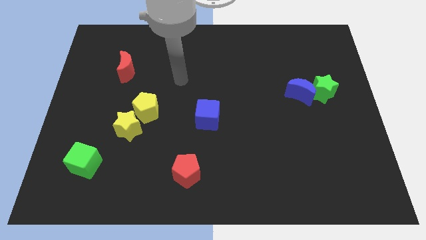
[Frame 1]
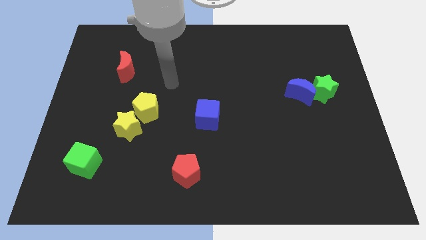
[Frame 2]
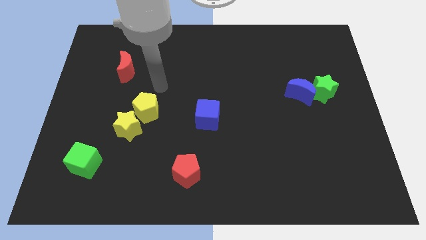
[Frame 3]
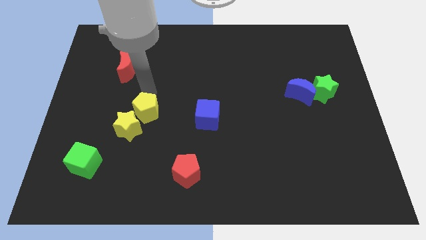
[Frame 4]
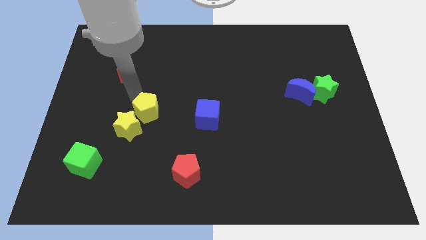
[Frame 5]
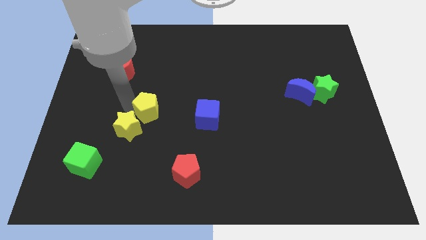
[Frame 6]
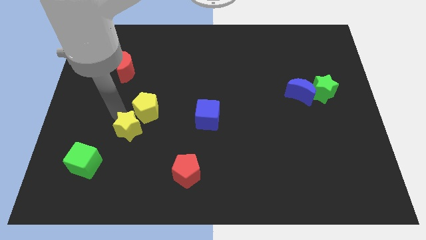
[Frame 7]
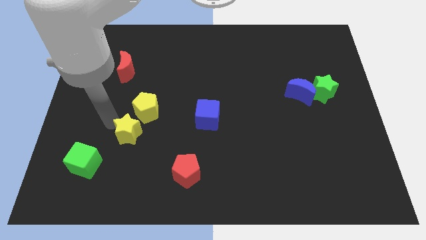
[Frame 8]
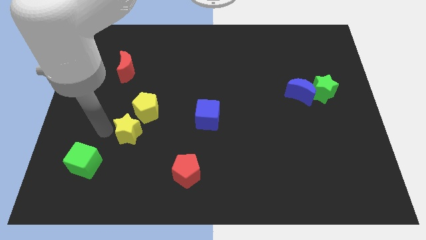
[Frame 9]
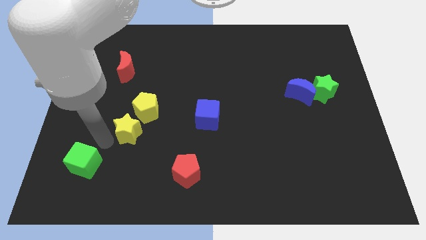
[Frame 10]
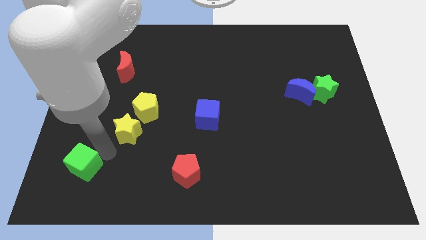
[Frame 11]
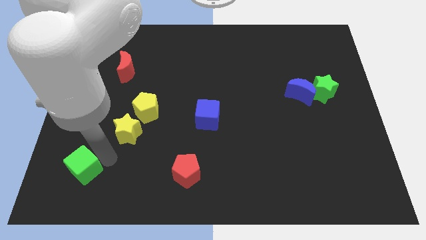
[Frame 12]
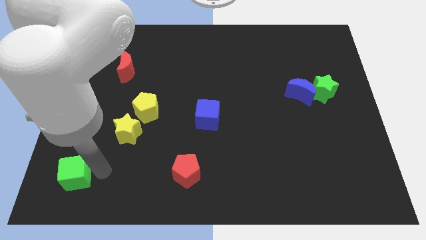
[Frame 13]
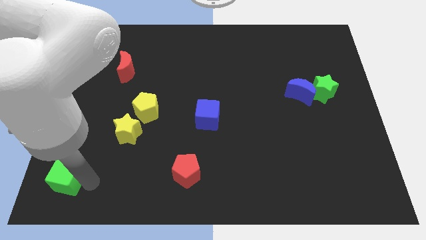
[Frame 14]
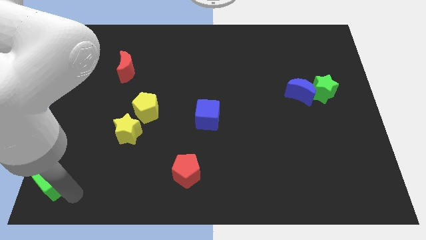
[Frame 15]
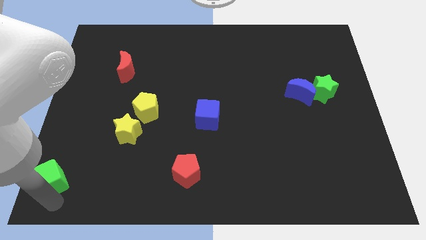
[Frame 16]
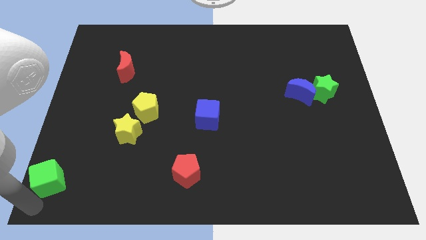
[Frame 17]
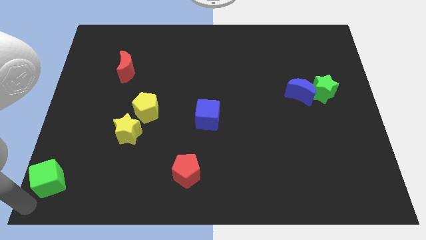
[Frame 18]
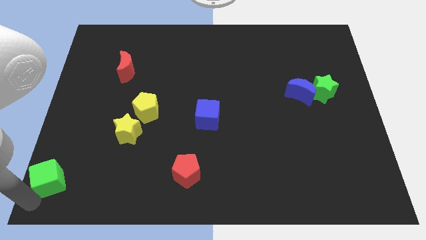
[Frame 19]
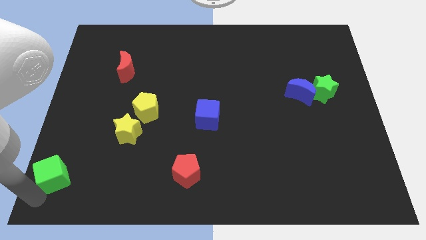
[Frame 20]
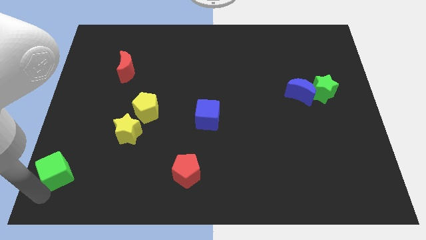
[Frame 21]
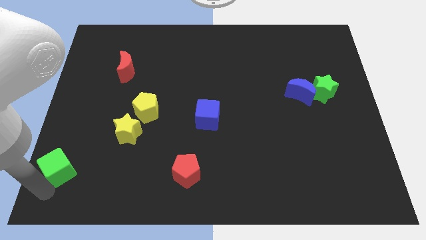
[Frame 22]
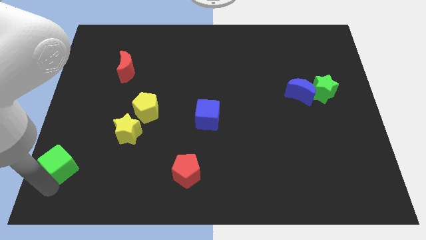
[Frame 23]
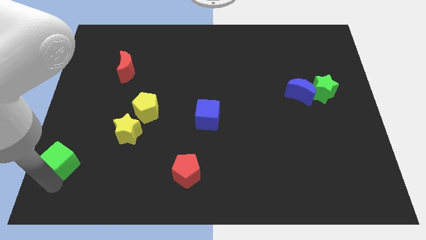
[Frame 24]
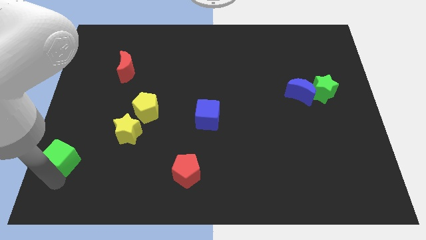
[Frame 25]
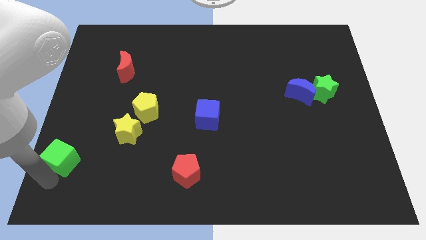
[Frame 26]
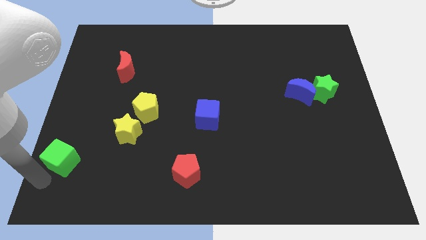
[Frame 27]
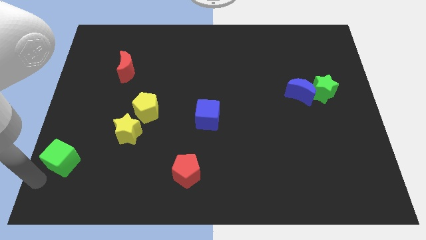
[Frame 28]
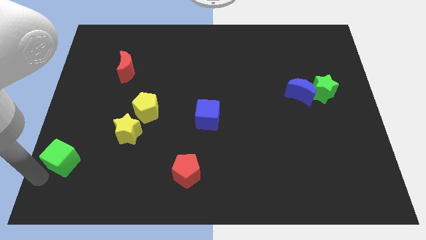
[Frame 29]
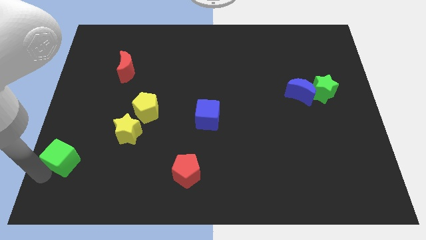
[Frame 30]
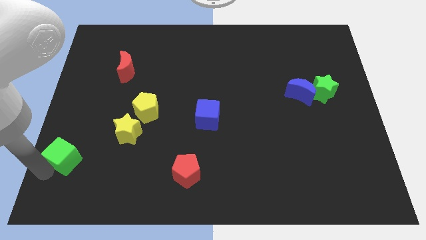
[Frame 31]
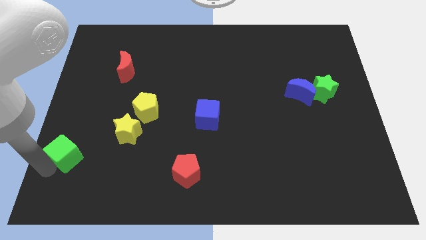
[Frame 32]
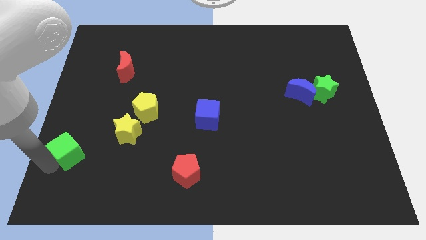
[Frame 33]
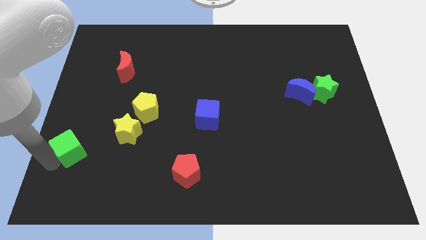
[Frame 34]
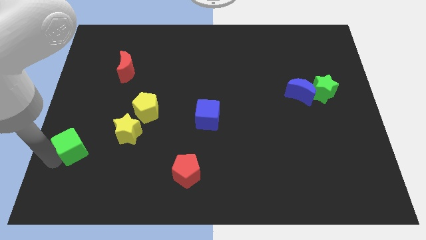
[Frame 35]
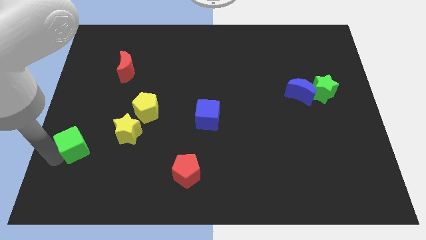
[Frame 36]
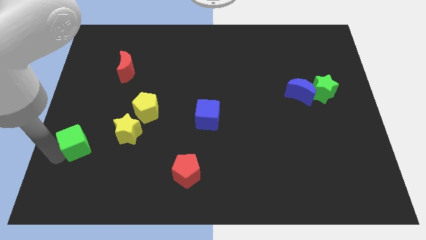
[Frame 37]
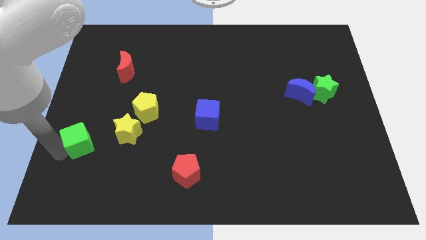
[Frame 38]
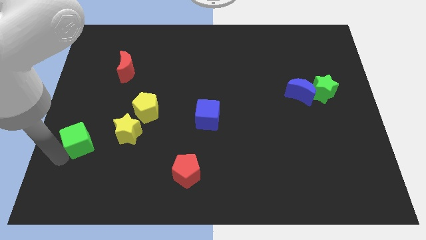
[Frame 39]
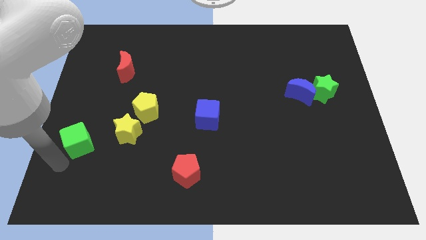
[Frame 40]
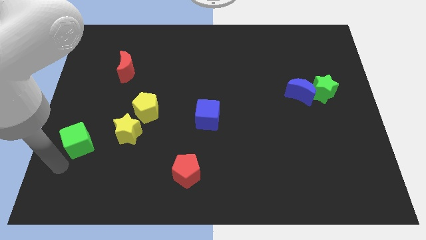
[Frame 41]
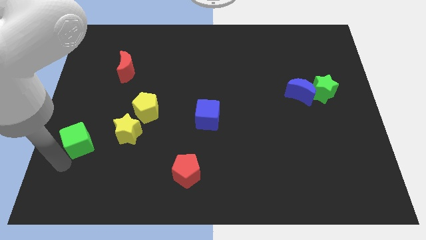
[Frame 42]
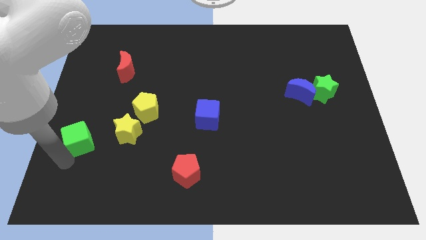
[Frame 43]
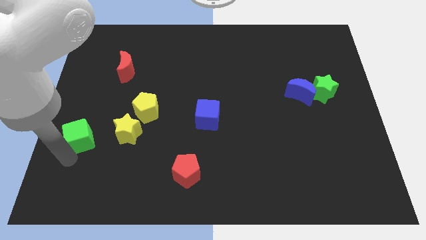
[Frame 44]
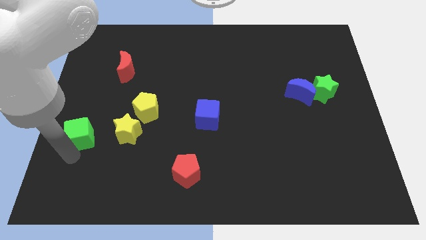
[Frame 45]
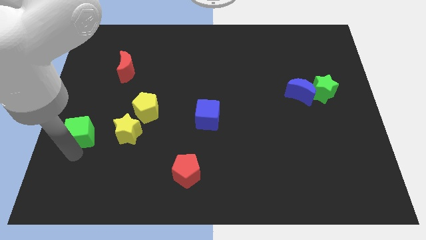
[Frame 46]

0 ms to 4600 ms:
move the green cube up a little

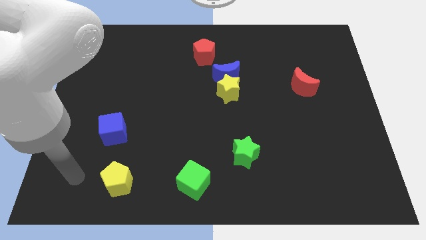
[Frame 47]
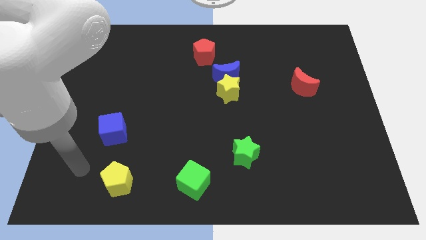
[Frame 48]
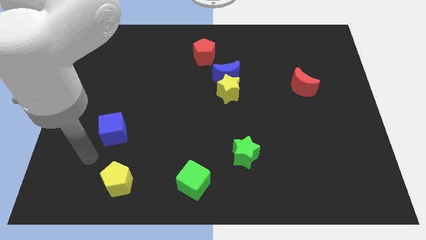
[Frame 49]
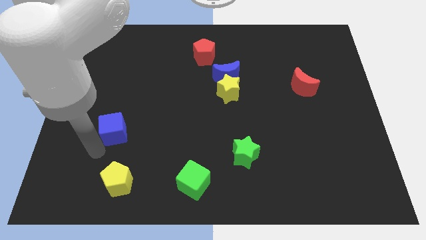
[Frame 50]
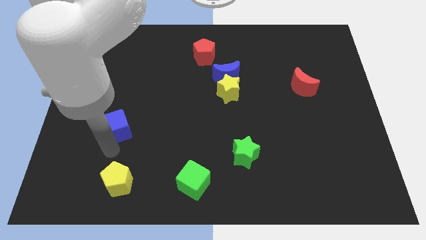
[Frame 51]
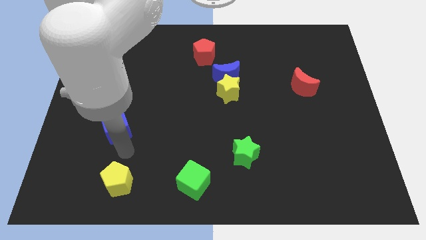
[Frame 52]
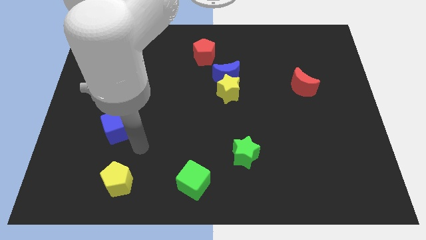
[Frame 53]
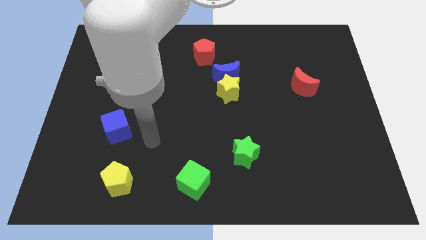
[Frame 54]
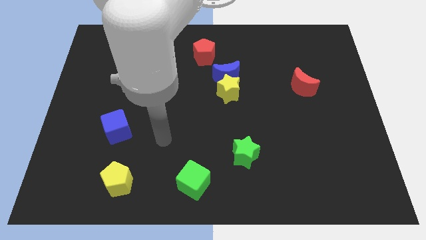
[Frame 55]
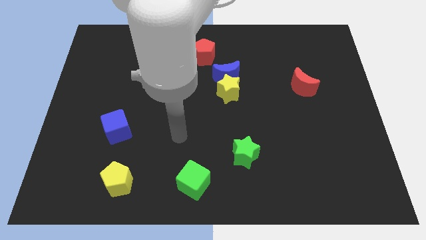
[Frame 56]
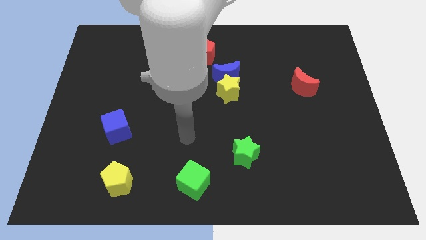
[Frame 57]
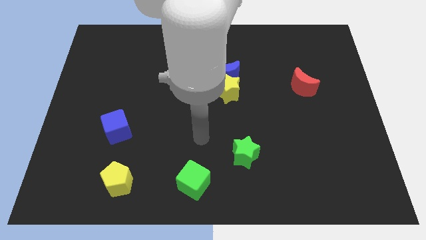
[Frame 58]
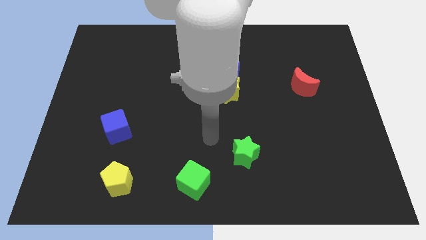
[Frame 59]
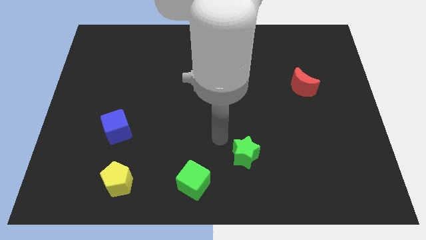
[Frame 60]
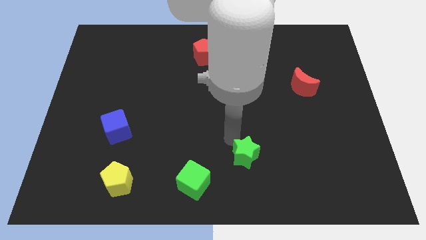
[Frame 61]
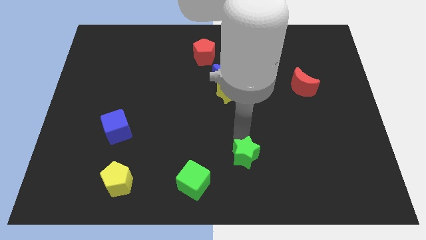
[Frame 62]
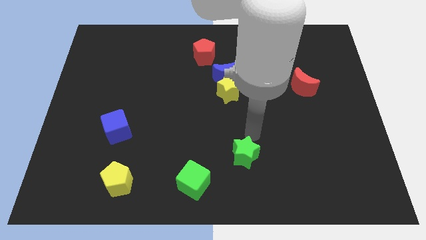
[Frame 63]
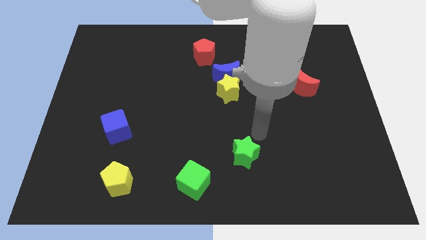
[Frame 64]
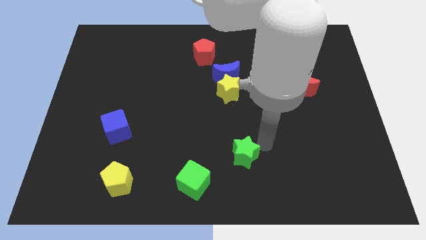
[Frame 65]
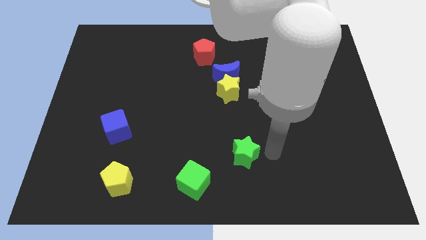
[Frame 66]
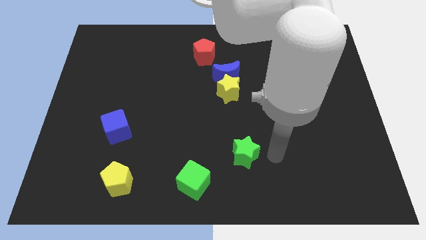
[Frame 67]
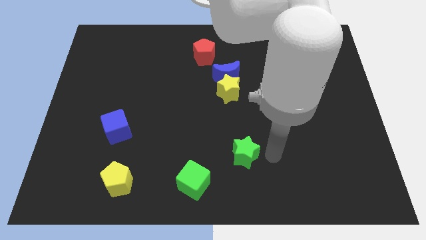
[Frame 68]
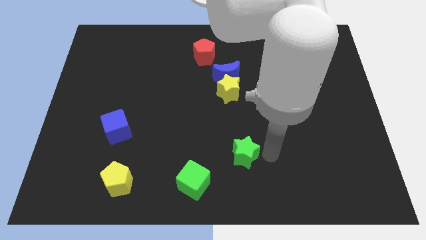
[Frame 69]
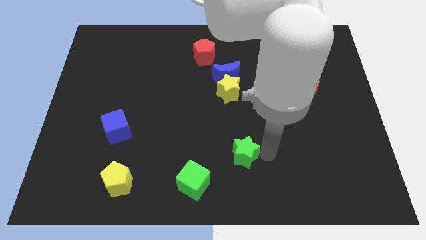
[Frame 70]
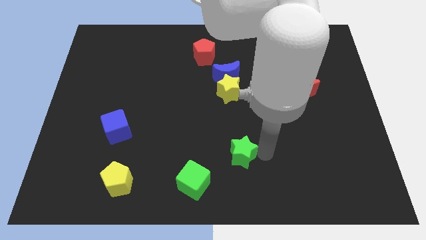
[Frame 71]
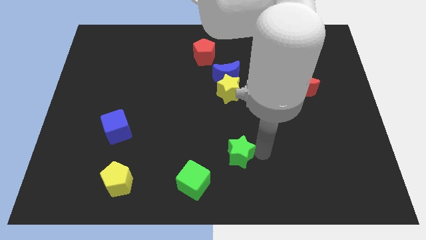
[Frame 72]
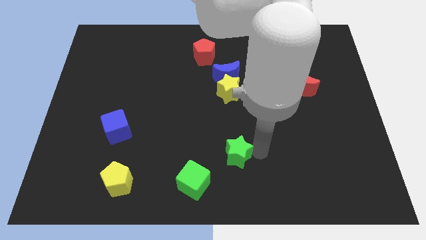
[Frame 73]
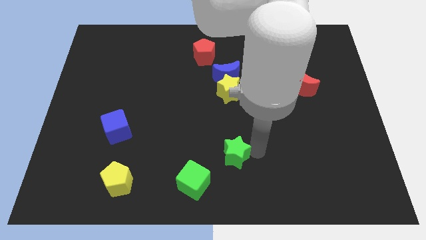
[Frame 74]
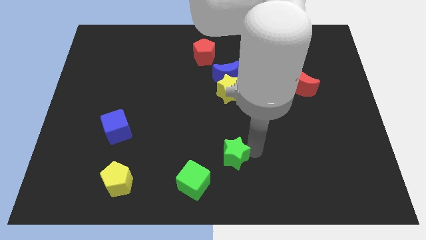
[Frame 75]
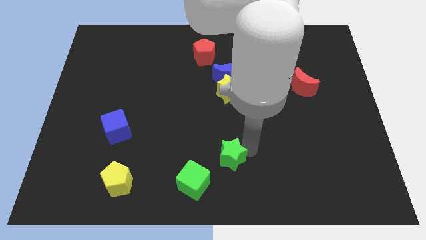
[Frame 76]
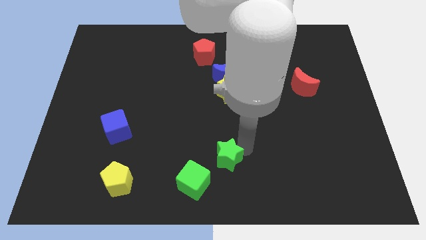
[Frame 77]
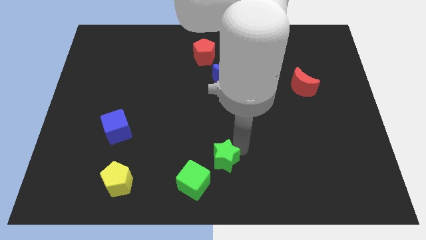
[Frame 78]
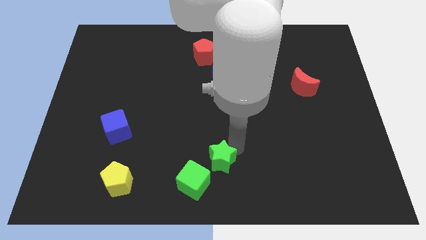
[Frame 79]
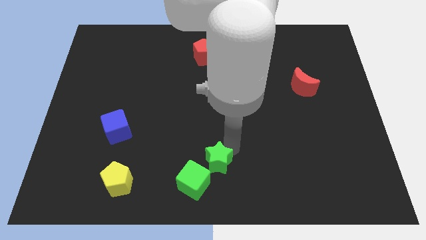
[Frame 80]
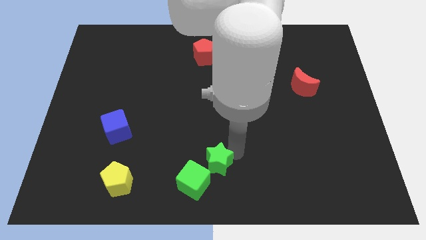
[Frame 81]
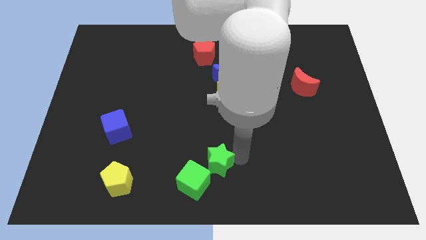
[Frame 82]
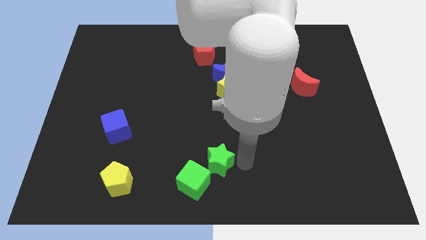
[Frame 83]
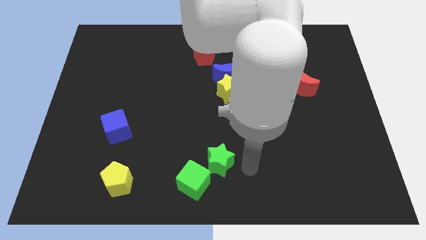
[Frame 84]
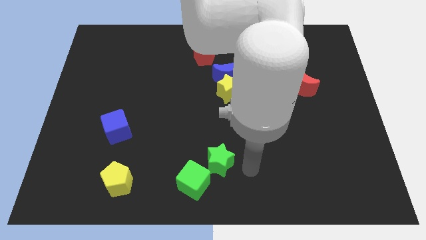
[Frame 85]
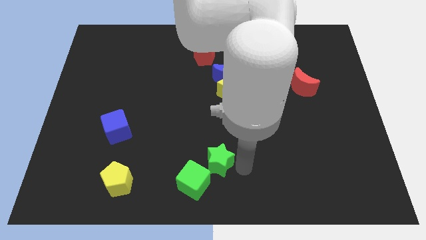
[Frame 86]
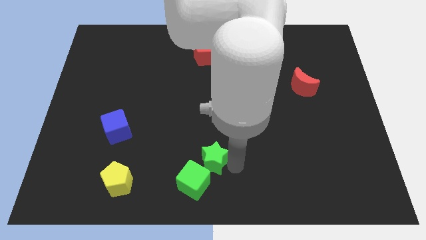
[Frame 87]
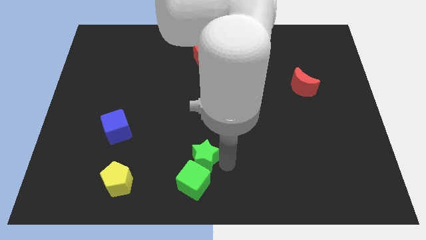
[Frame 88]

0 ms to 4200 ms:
slide the green star a bit to the left
